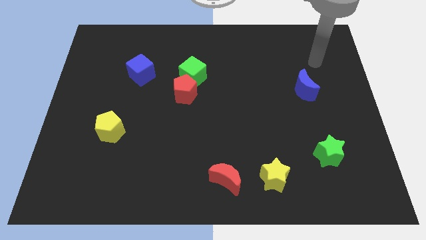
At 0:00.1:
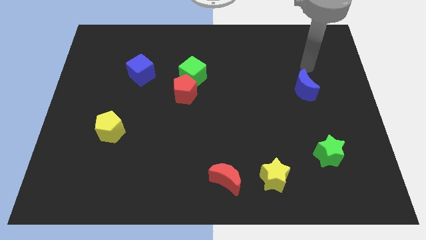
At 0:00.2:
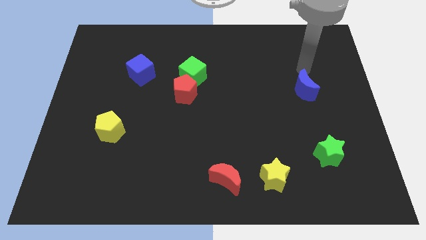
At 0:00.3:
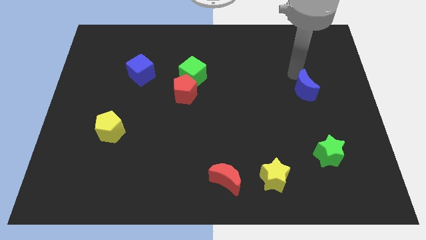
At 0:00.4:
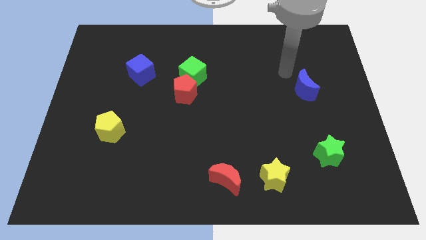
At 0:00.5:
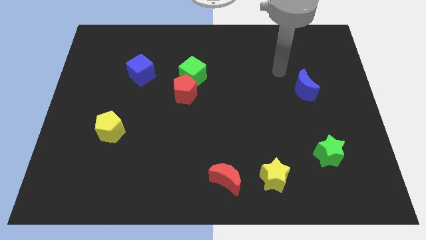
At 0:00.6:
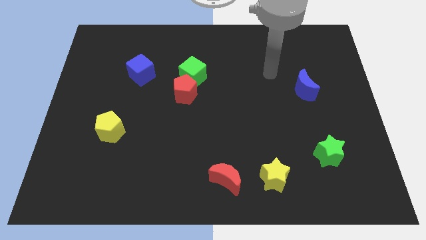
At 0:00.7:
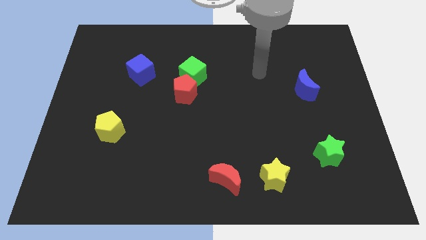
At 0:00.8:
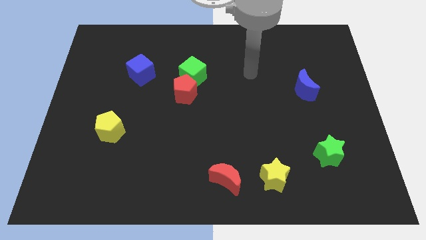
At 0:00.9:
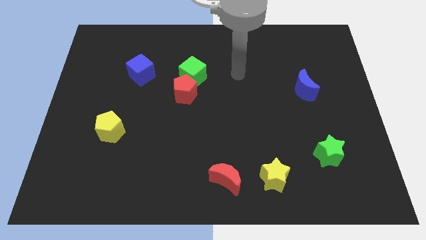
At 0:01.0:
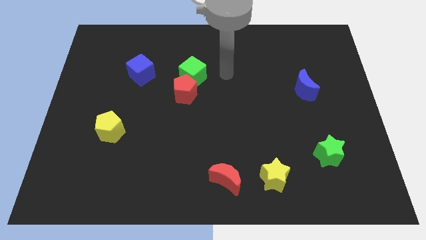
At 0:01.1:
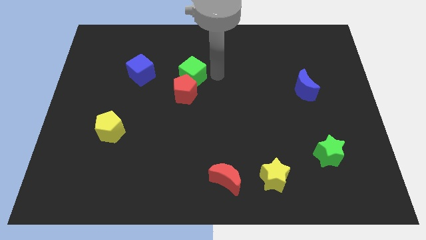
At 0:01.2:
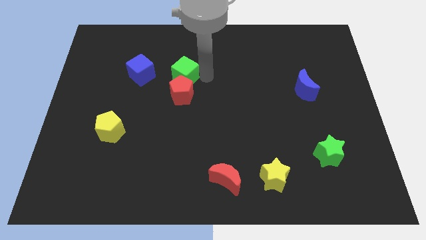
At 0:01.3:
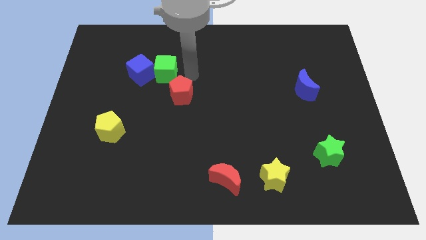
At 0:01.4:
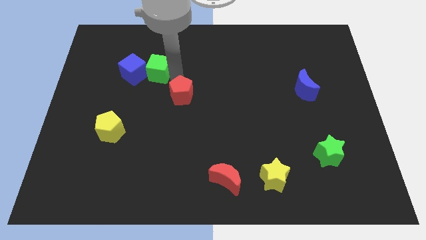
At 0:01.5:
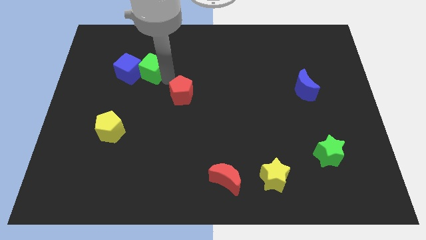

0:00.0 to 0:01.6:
move the red pentagon away from the green cube

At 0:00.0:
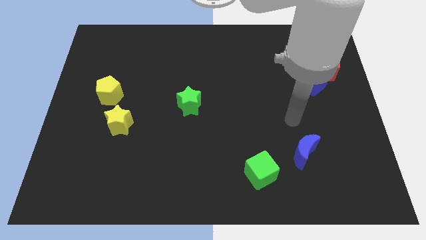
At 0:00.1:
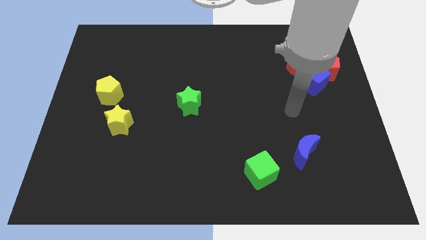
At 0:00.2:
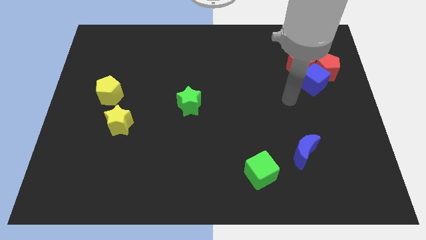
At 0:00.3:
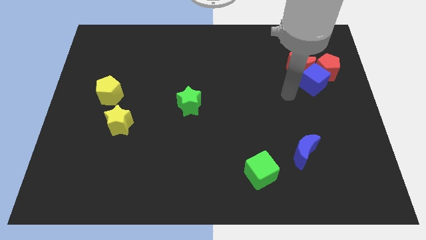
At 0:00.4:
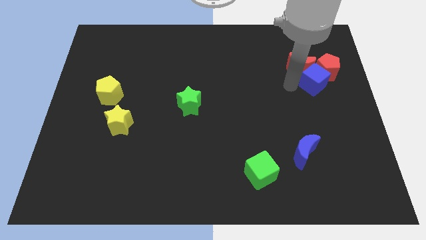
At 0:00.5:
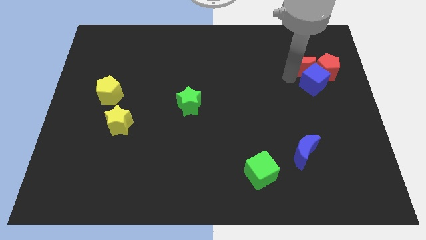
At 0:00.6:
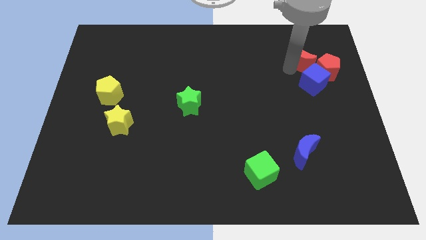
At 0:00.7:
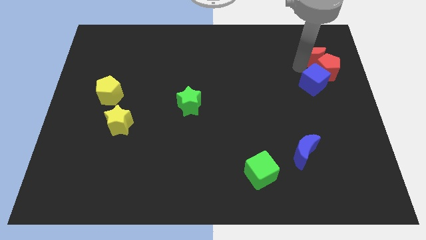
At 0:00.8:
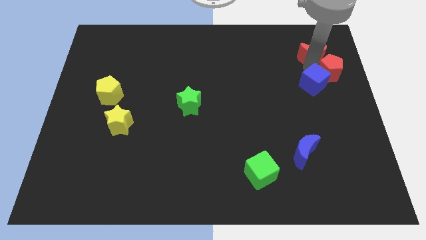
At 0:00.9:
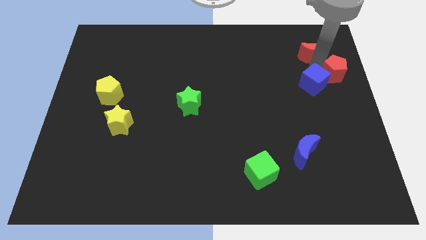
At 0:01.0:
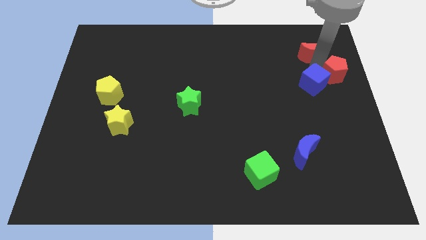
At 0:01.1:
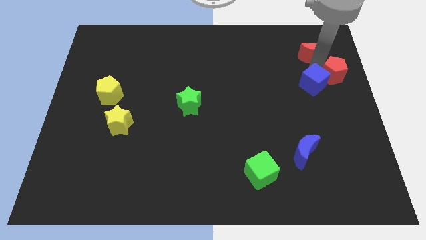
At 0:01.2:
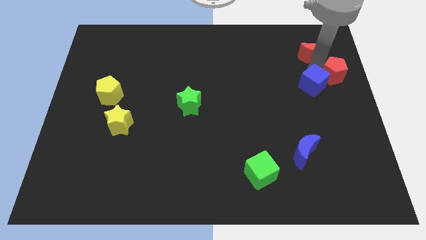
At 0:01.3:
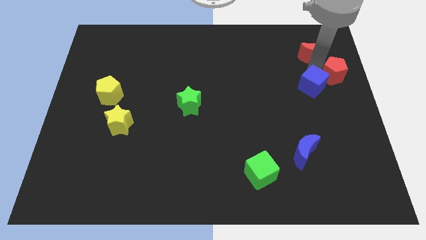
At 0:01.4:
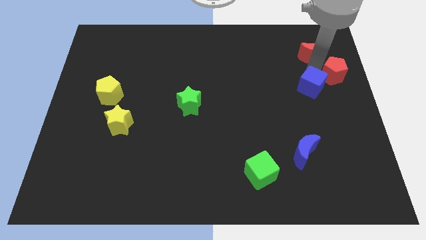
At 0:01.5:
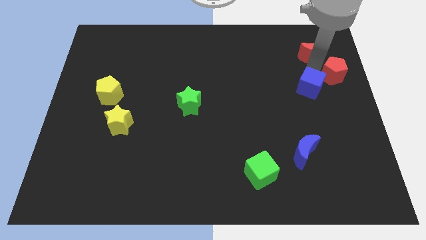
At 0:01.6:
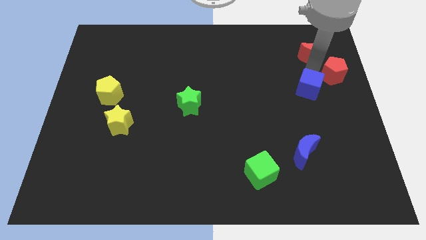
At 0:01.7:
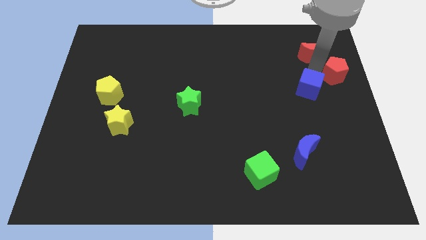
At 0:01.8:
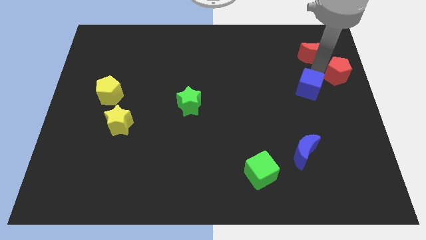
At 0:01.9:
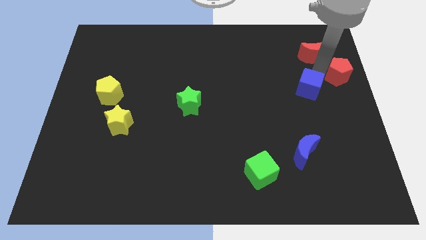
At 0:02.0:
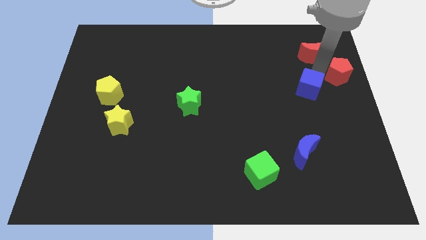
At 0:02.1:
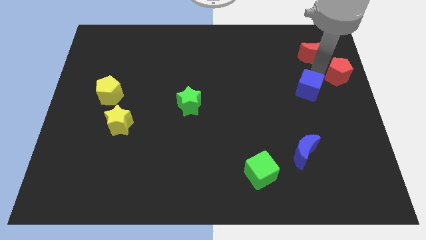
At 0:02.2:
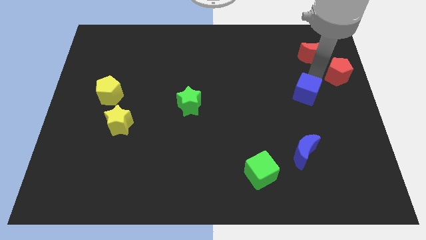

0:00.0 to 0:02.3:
separate the blue cube from the red moon and red pentagon

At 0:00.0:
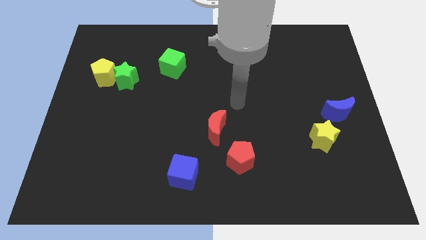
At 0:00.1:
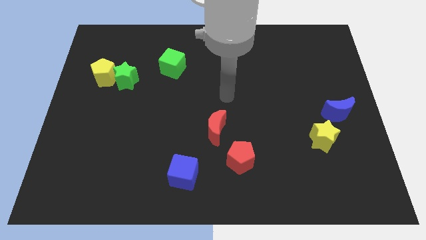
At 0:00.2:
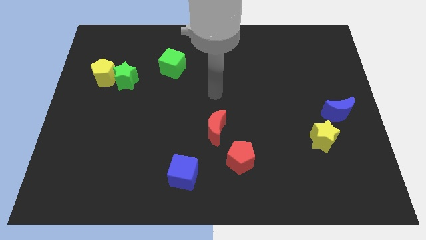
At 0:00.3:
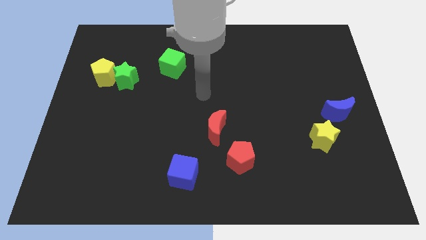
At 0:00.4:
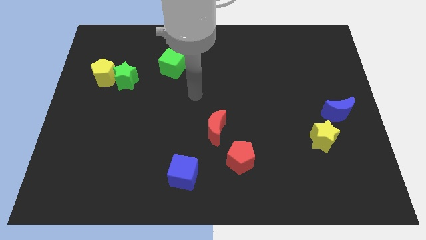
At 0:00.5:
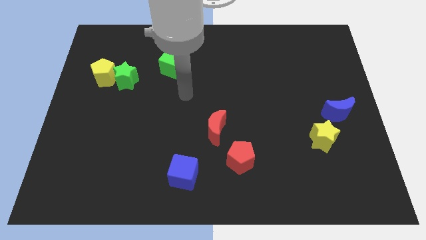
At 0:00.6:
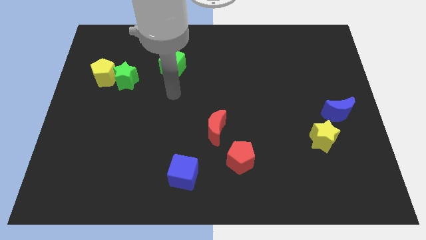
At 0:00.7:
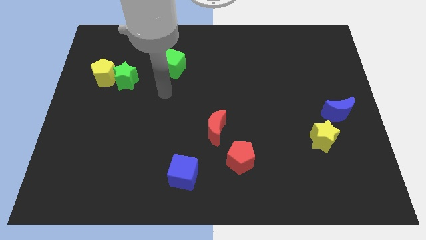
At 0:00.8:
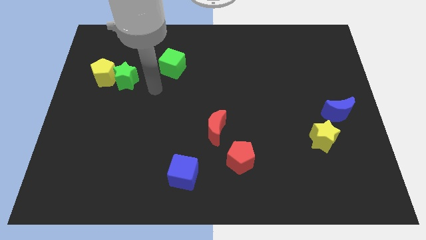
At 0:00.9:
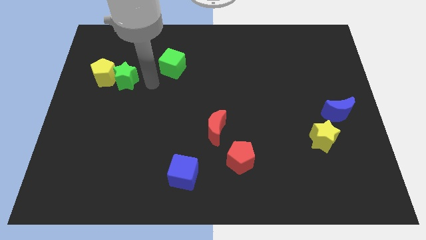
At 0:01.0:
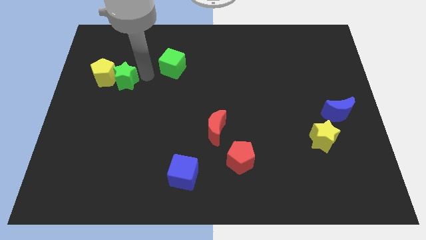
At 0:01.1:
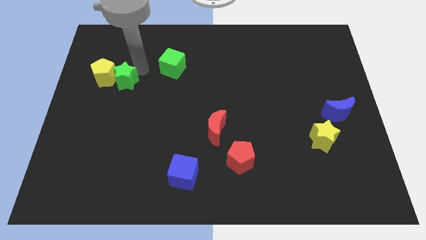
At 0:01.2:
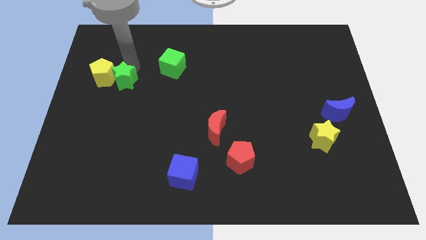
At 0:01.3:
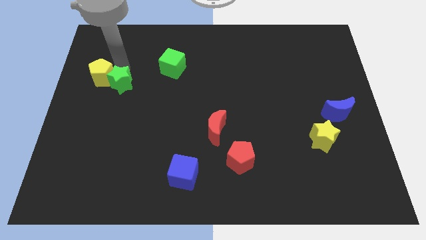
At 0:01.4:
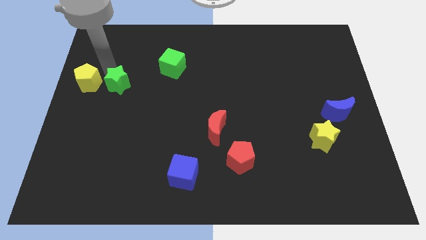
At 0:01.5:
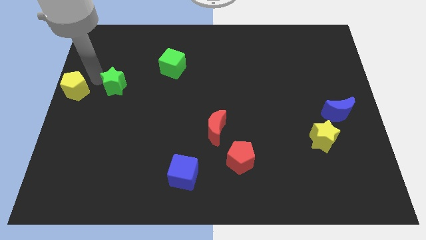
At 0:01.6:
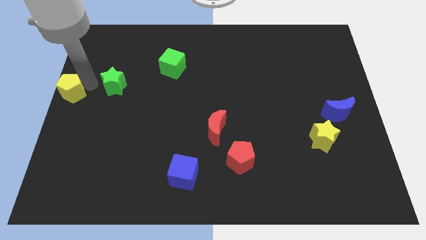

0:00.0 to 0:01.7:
pull the green star apart from the yellow pentagon

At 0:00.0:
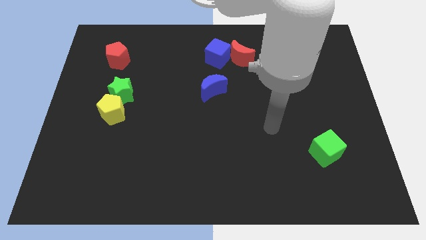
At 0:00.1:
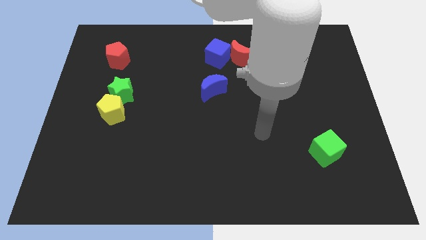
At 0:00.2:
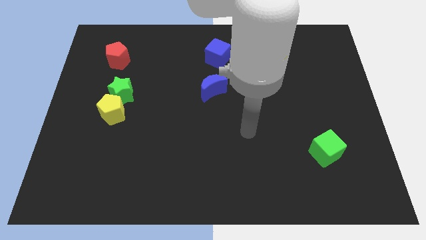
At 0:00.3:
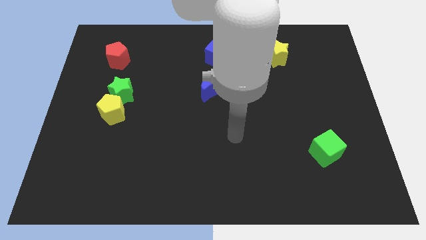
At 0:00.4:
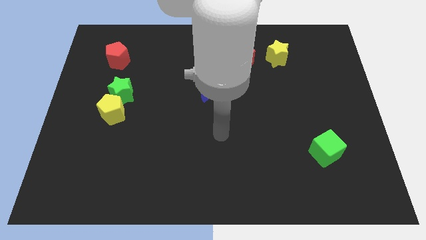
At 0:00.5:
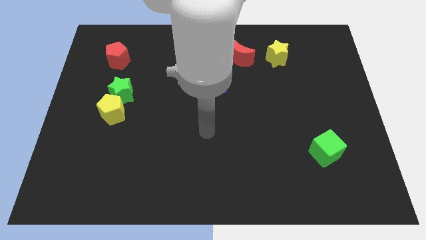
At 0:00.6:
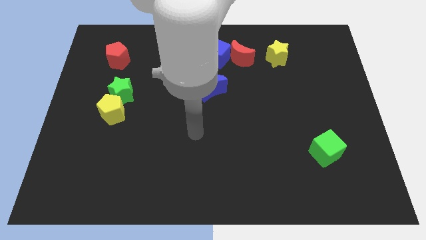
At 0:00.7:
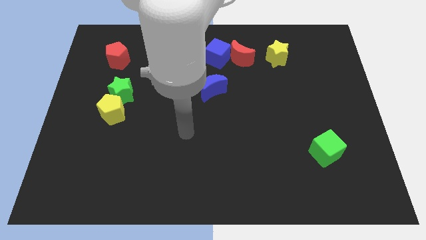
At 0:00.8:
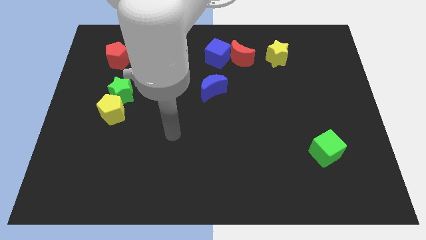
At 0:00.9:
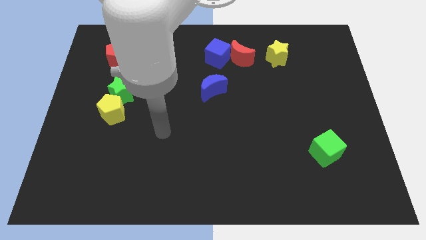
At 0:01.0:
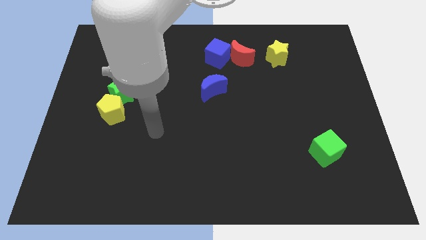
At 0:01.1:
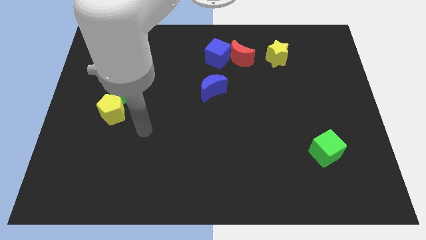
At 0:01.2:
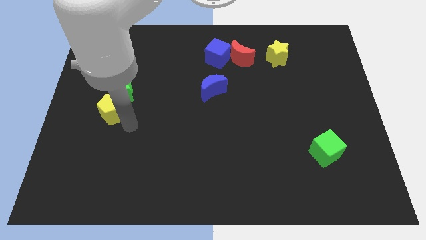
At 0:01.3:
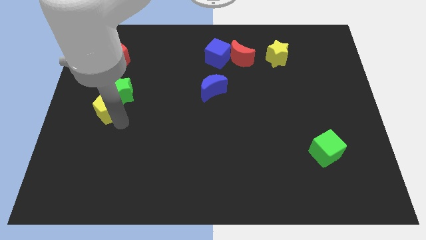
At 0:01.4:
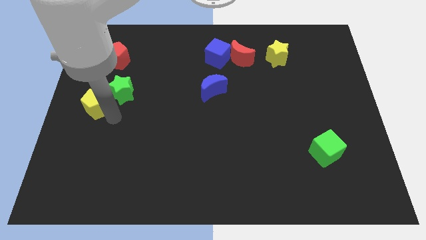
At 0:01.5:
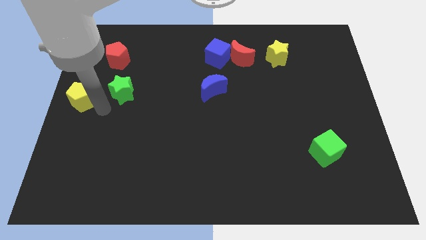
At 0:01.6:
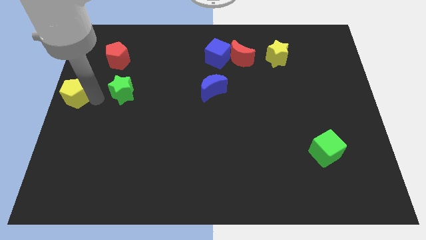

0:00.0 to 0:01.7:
move the green star away from the yellow pentagon

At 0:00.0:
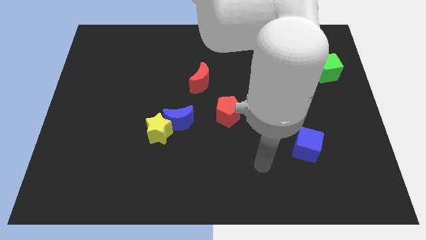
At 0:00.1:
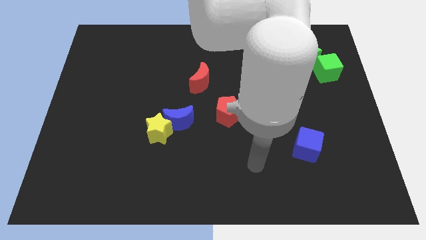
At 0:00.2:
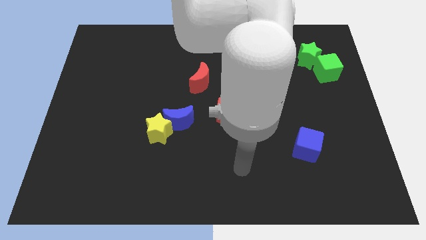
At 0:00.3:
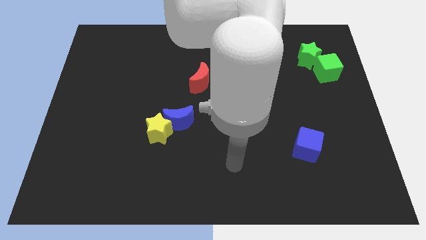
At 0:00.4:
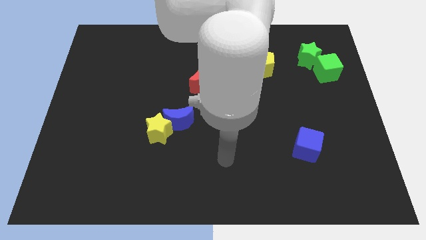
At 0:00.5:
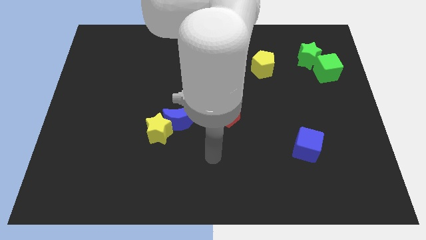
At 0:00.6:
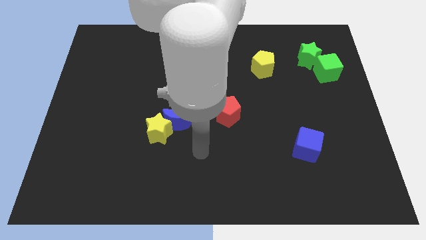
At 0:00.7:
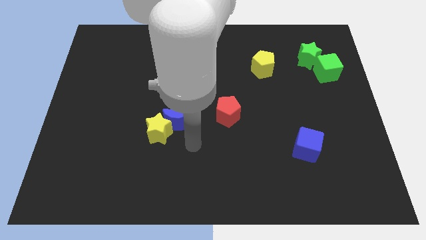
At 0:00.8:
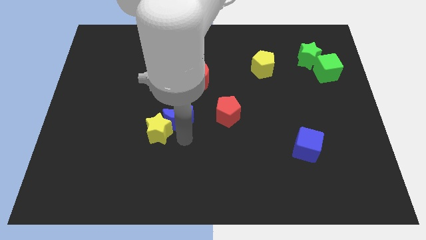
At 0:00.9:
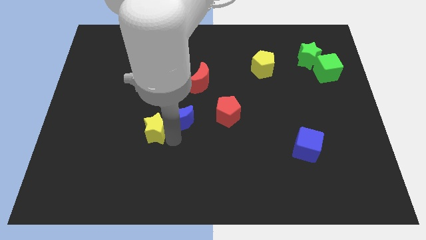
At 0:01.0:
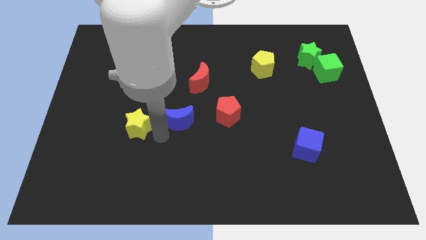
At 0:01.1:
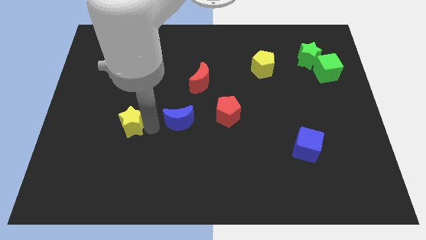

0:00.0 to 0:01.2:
separate the blue moon from the yellow star

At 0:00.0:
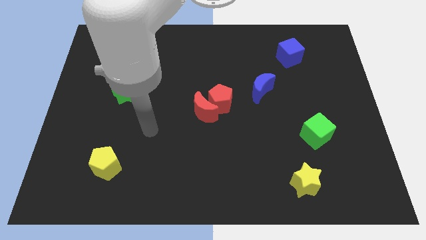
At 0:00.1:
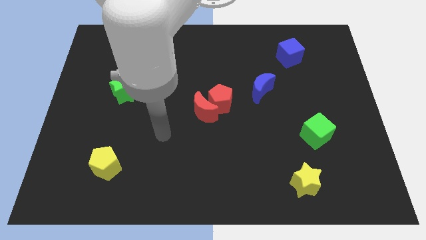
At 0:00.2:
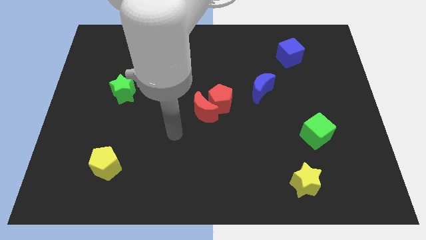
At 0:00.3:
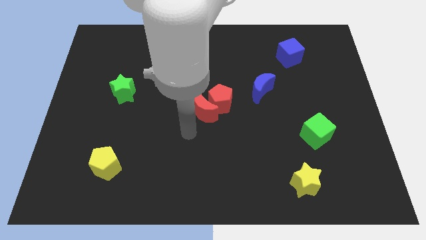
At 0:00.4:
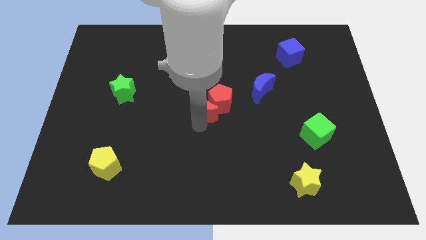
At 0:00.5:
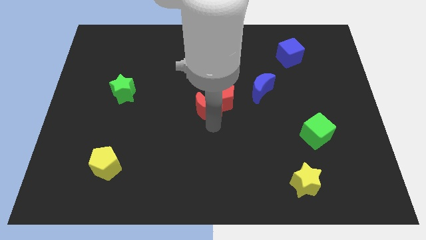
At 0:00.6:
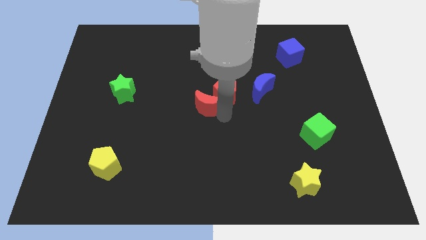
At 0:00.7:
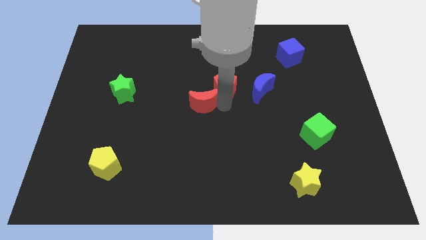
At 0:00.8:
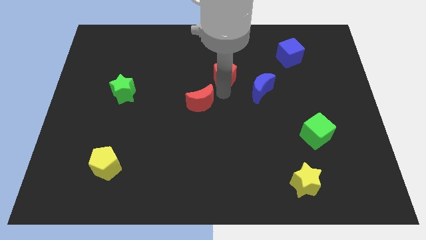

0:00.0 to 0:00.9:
pull the red moon apart from the red pentagon

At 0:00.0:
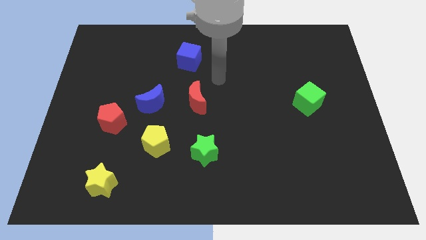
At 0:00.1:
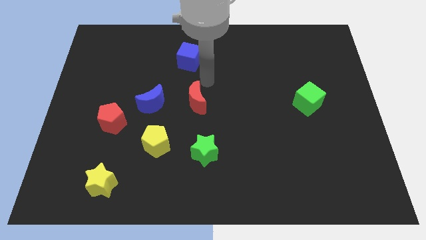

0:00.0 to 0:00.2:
pull the red pentagon apart from the blue moon
